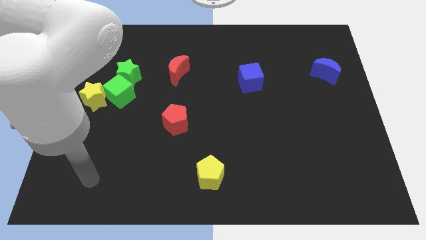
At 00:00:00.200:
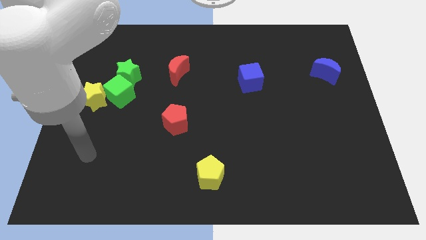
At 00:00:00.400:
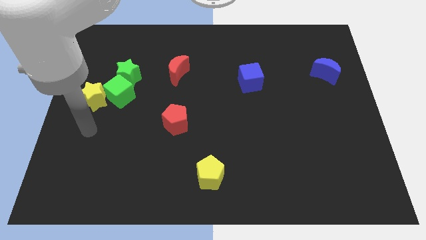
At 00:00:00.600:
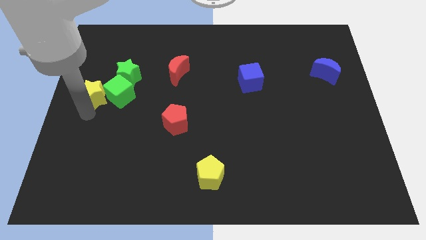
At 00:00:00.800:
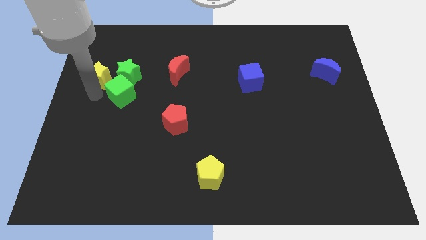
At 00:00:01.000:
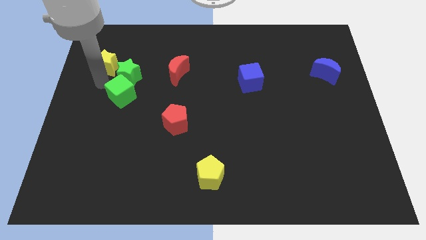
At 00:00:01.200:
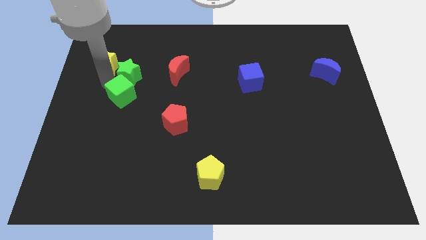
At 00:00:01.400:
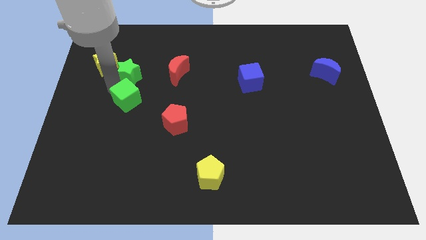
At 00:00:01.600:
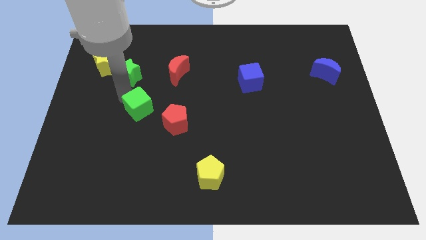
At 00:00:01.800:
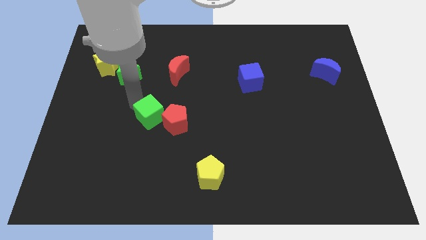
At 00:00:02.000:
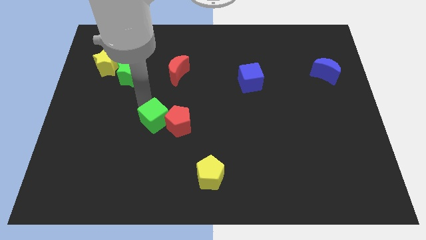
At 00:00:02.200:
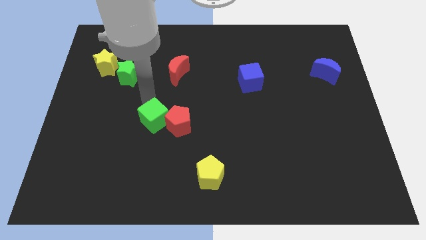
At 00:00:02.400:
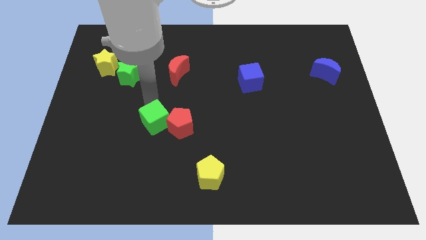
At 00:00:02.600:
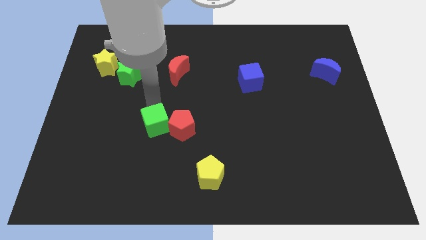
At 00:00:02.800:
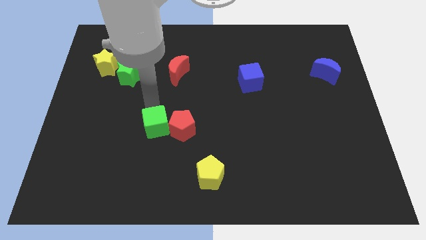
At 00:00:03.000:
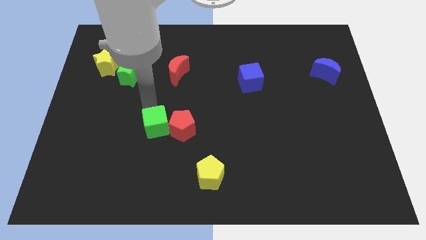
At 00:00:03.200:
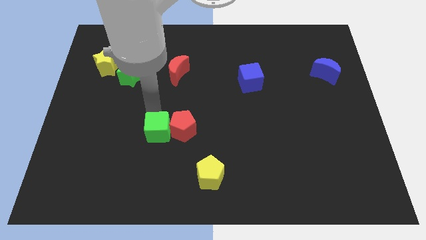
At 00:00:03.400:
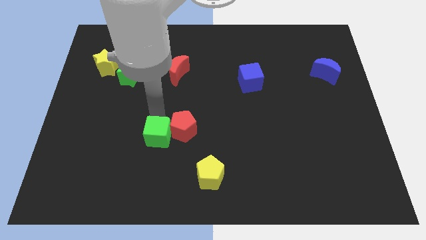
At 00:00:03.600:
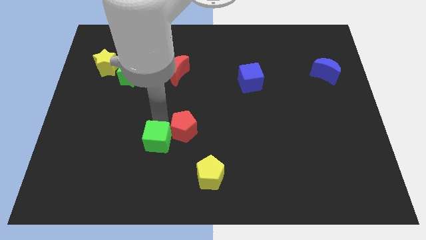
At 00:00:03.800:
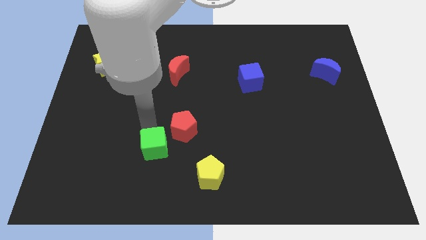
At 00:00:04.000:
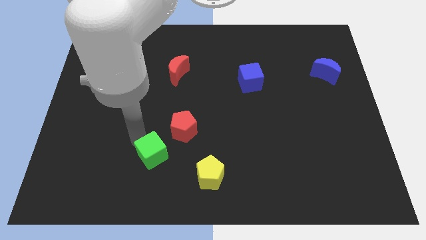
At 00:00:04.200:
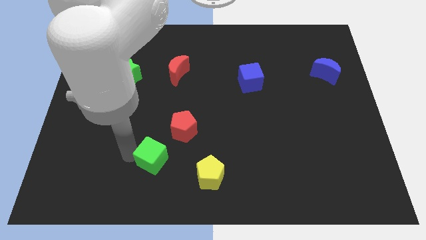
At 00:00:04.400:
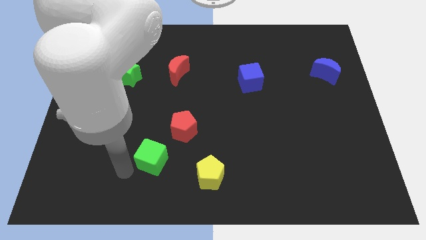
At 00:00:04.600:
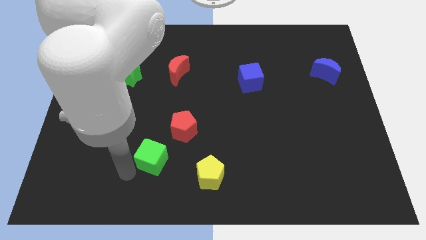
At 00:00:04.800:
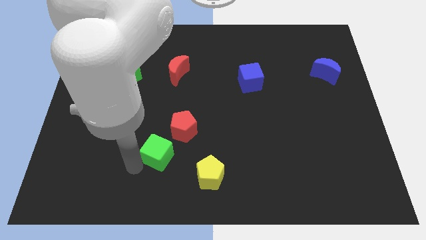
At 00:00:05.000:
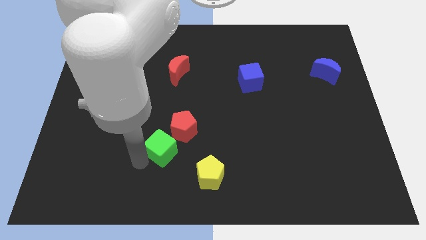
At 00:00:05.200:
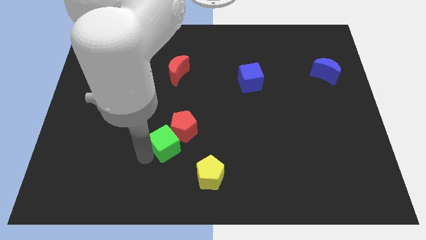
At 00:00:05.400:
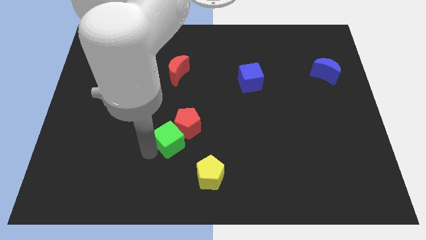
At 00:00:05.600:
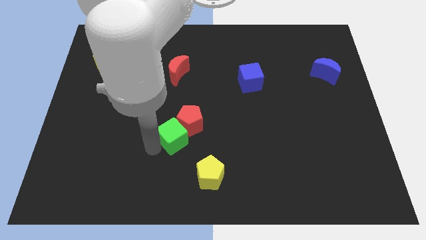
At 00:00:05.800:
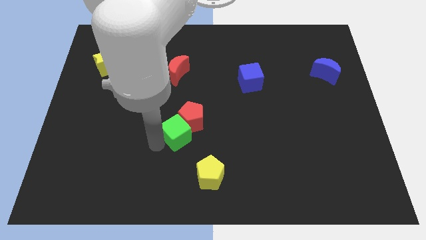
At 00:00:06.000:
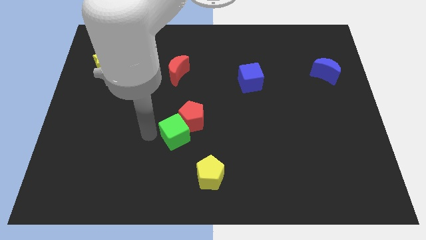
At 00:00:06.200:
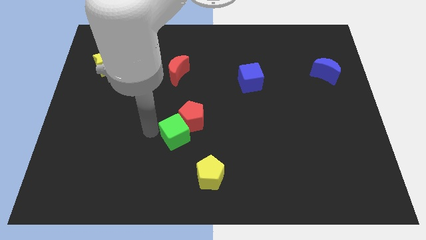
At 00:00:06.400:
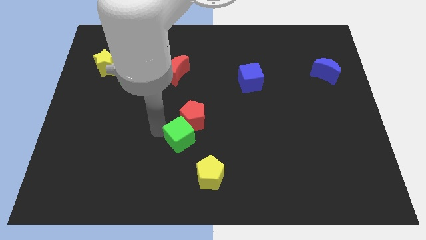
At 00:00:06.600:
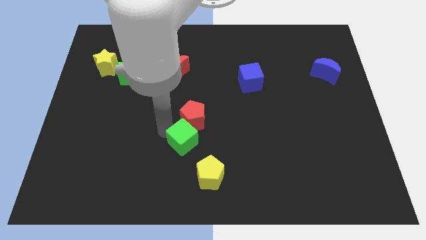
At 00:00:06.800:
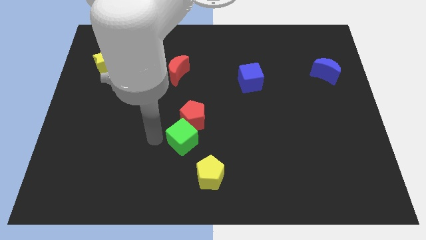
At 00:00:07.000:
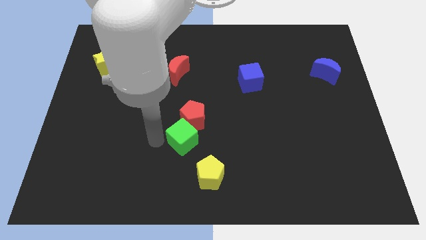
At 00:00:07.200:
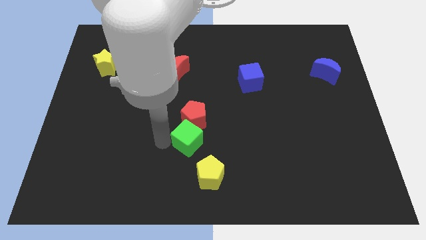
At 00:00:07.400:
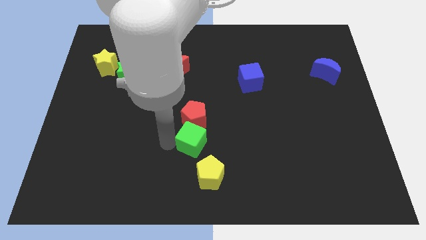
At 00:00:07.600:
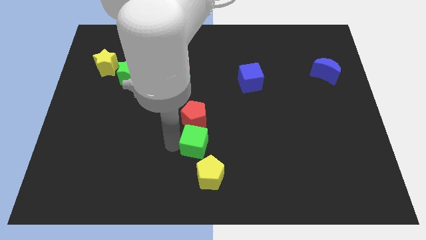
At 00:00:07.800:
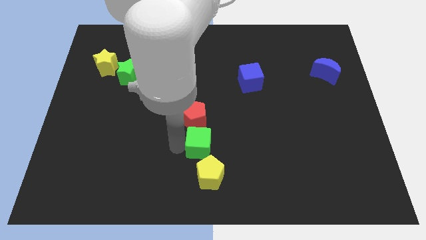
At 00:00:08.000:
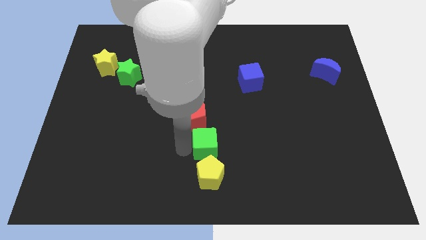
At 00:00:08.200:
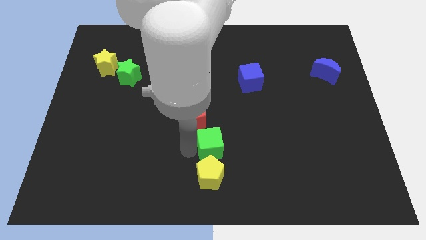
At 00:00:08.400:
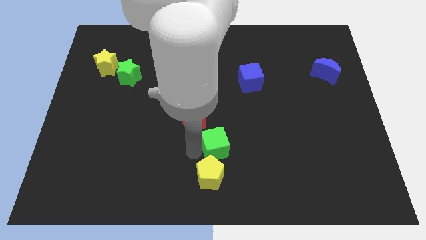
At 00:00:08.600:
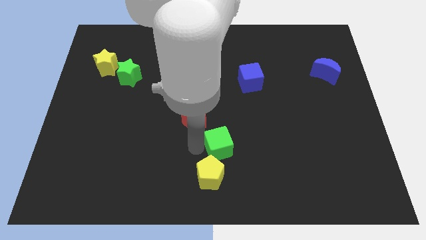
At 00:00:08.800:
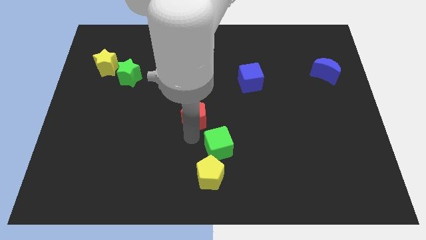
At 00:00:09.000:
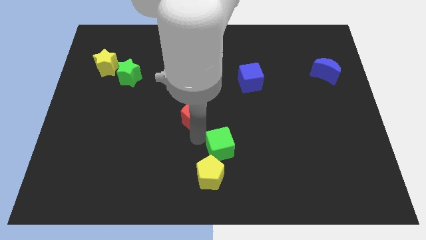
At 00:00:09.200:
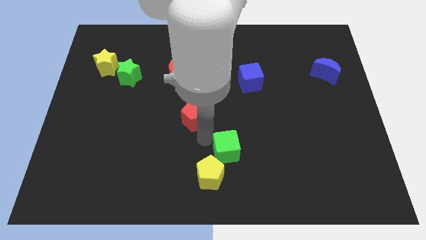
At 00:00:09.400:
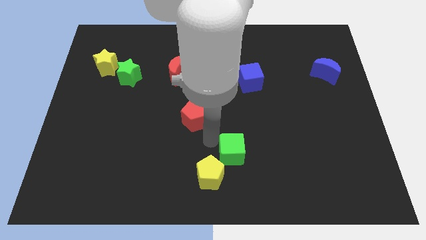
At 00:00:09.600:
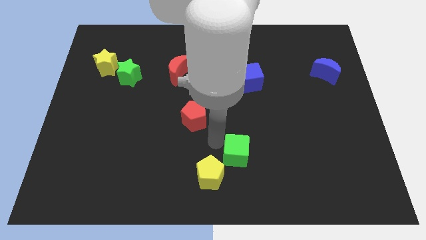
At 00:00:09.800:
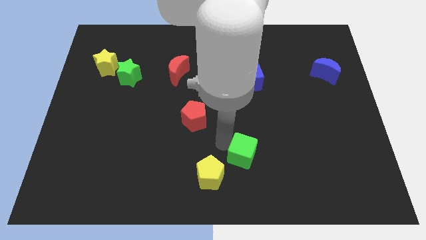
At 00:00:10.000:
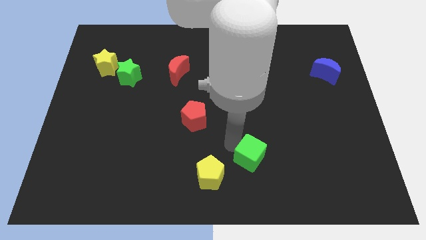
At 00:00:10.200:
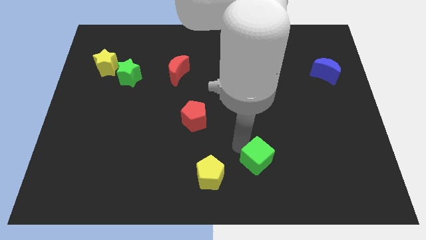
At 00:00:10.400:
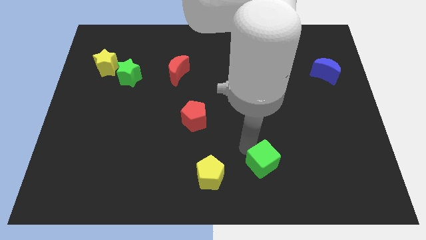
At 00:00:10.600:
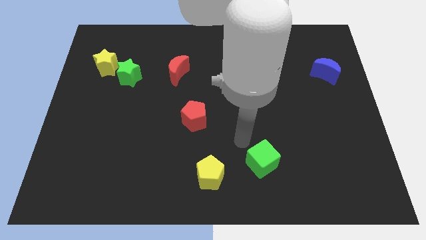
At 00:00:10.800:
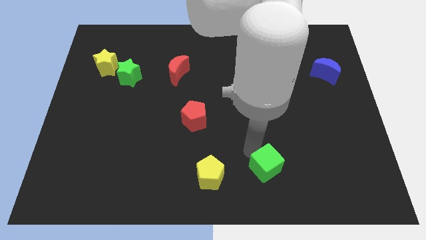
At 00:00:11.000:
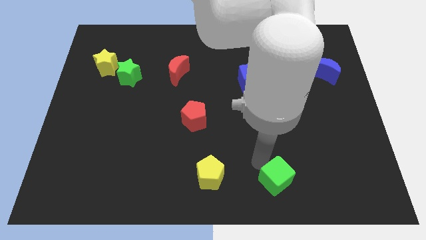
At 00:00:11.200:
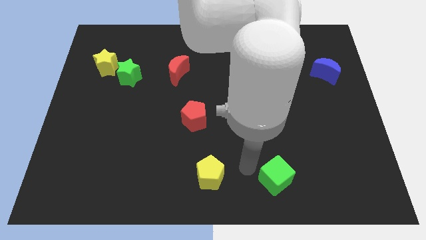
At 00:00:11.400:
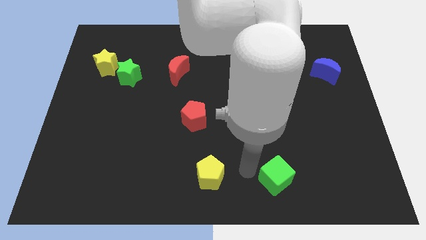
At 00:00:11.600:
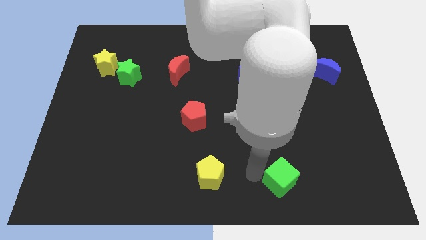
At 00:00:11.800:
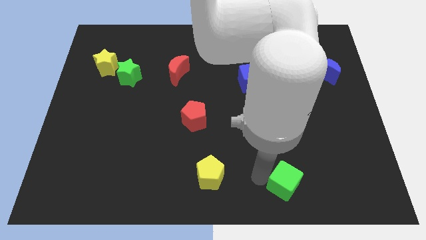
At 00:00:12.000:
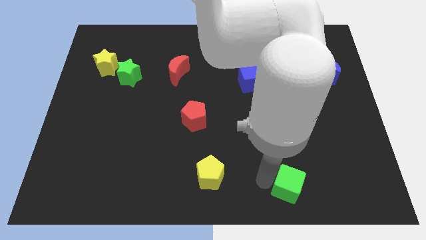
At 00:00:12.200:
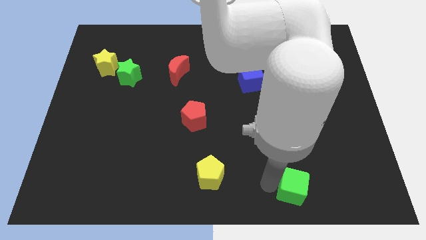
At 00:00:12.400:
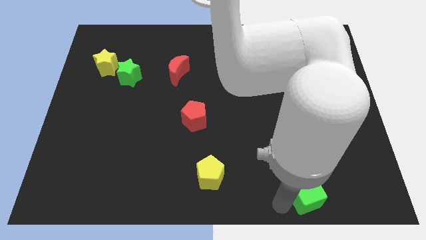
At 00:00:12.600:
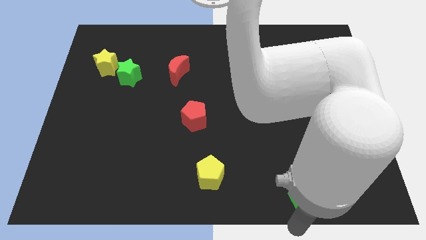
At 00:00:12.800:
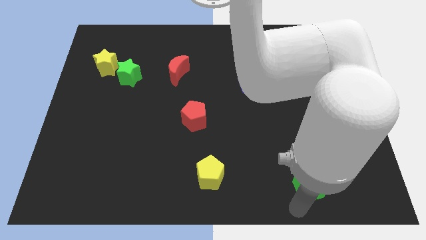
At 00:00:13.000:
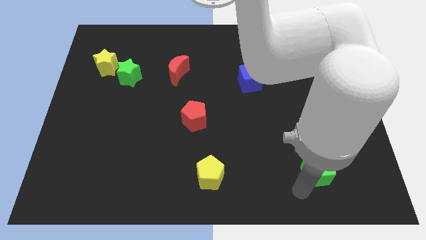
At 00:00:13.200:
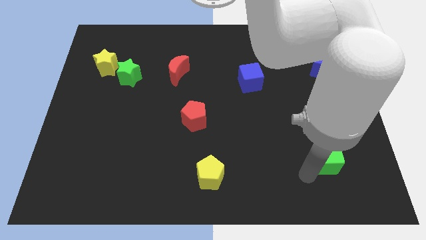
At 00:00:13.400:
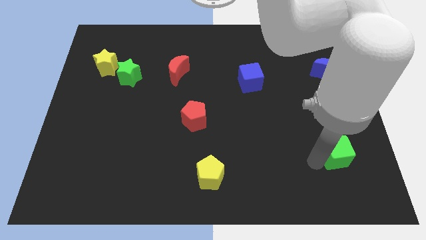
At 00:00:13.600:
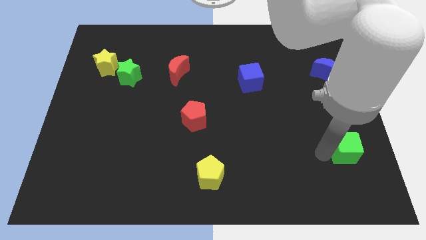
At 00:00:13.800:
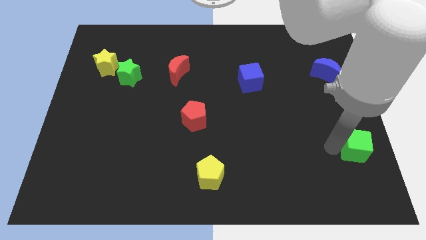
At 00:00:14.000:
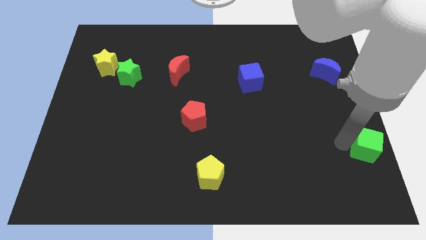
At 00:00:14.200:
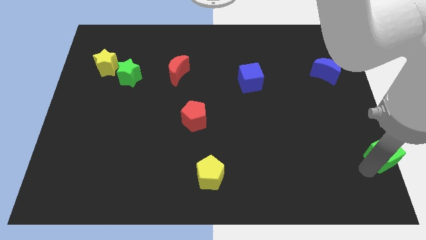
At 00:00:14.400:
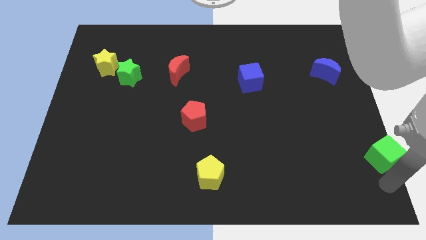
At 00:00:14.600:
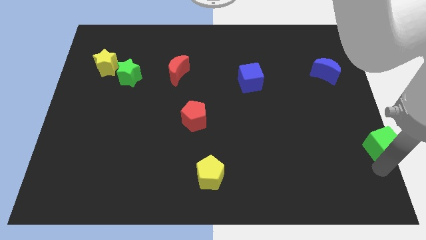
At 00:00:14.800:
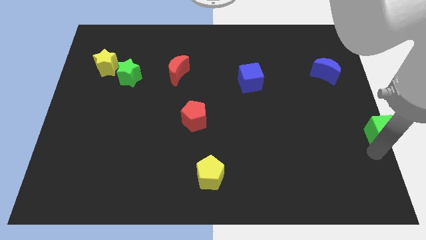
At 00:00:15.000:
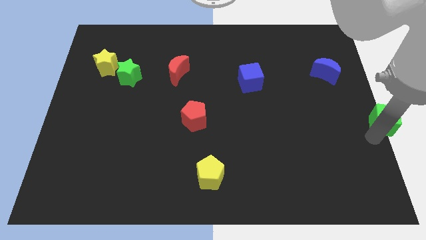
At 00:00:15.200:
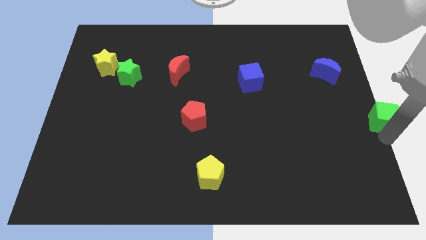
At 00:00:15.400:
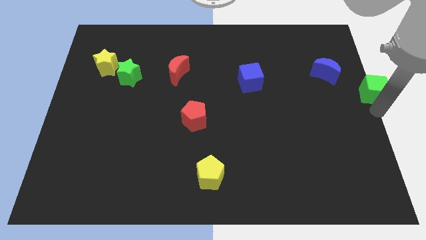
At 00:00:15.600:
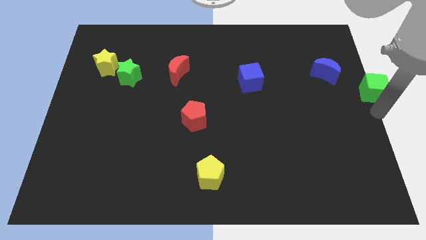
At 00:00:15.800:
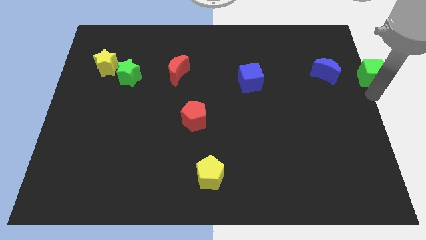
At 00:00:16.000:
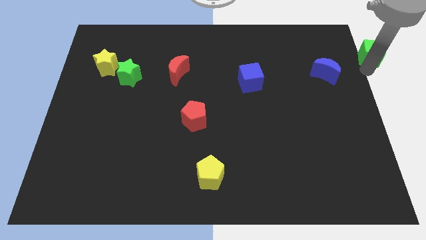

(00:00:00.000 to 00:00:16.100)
move the green cube to the upper right corner
